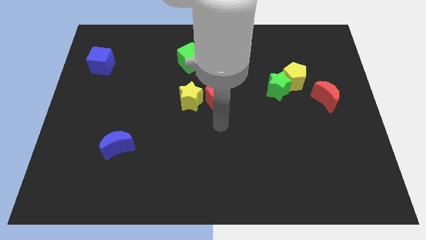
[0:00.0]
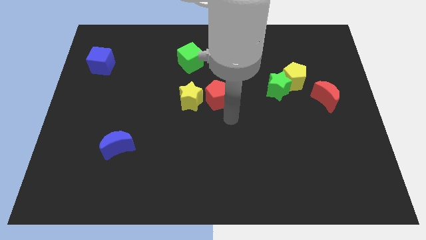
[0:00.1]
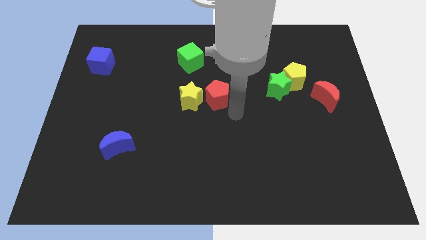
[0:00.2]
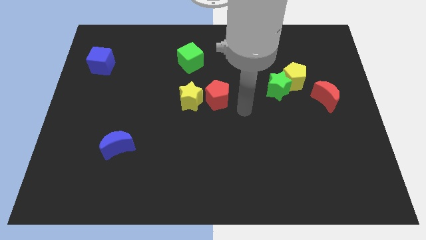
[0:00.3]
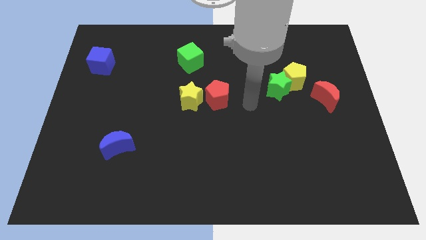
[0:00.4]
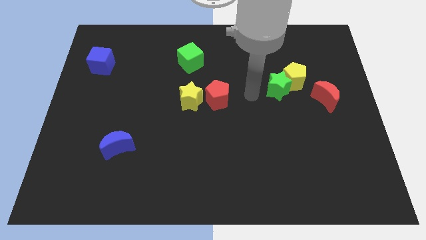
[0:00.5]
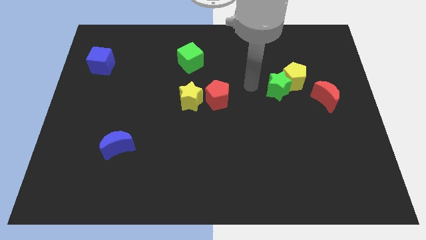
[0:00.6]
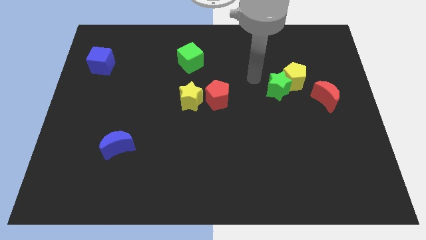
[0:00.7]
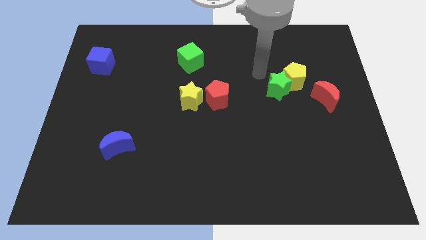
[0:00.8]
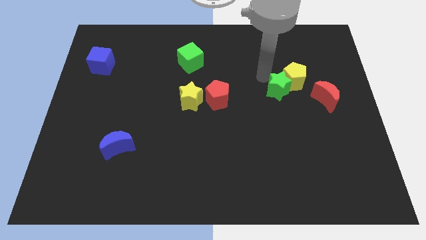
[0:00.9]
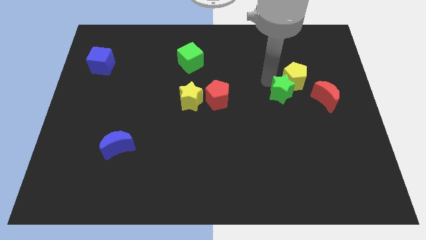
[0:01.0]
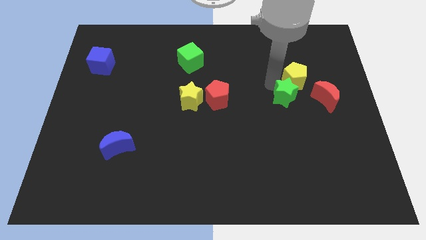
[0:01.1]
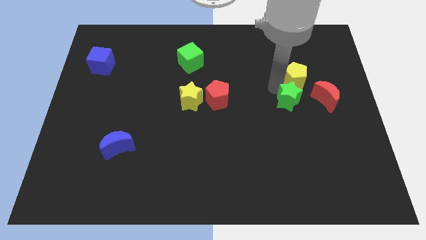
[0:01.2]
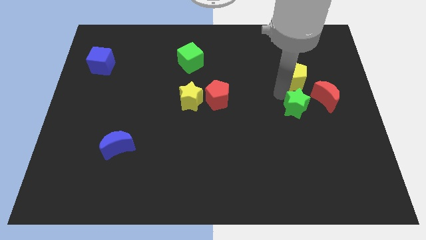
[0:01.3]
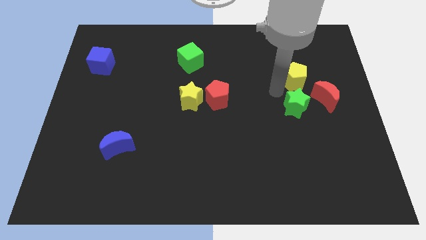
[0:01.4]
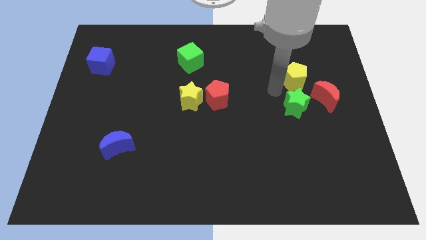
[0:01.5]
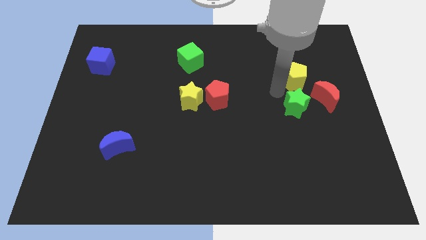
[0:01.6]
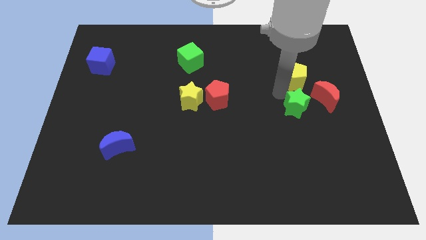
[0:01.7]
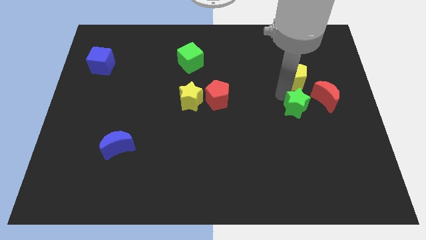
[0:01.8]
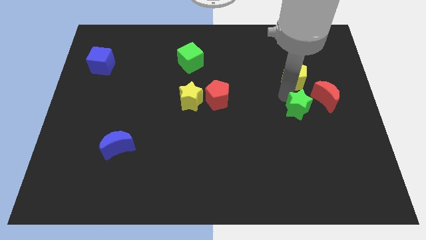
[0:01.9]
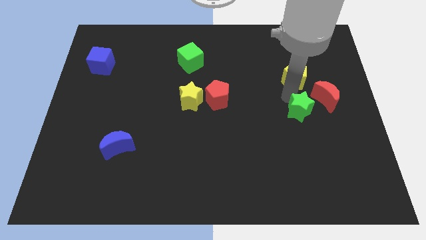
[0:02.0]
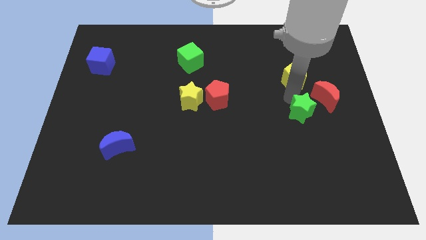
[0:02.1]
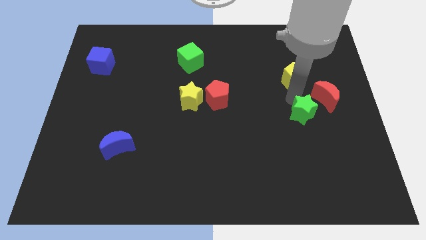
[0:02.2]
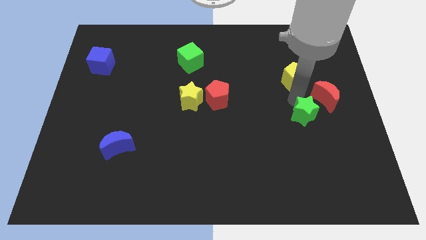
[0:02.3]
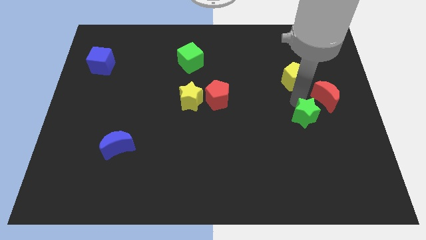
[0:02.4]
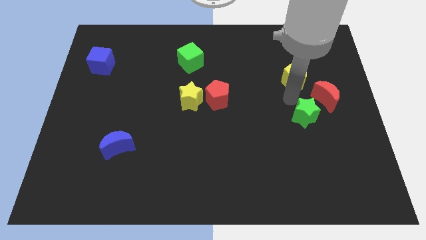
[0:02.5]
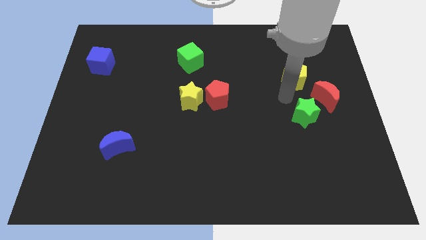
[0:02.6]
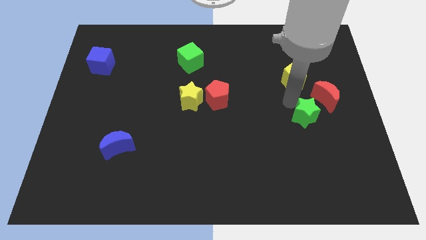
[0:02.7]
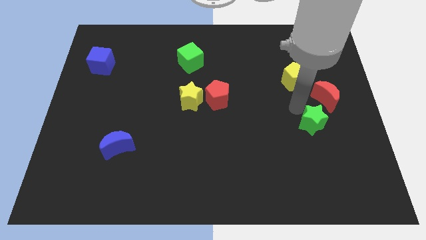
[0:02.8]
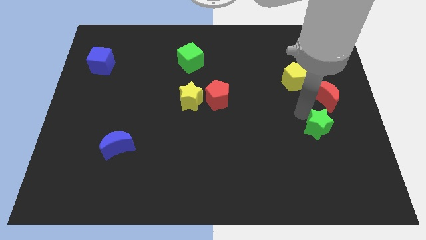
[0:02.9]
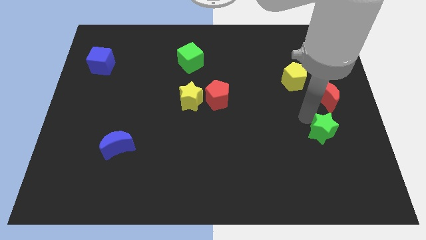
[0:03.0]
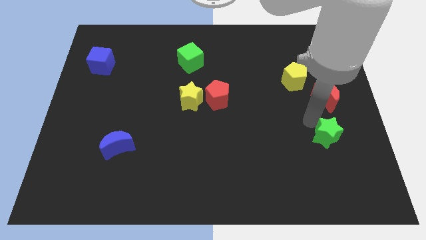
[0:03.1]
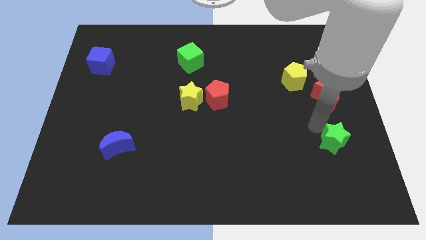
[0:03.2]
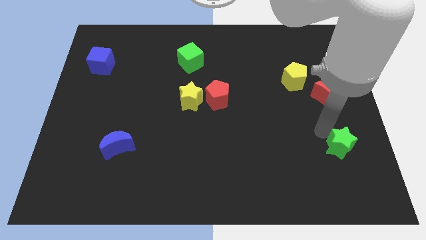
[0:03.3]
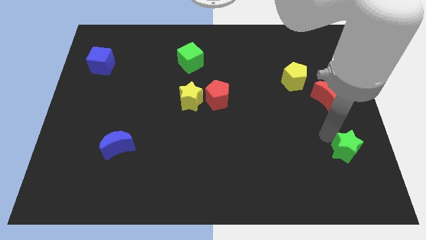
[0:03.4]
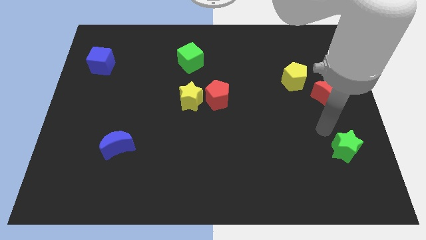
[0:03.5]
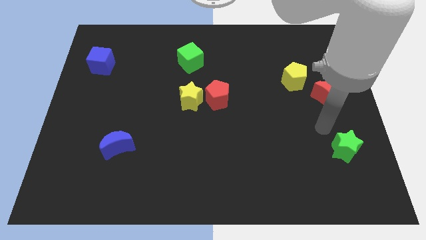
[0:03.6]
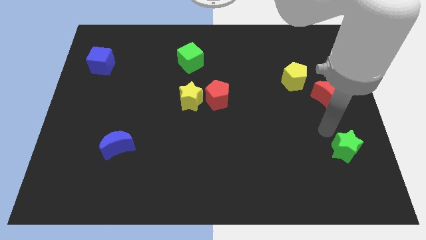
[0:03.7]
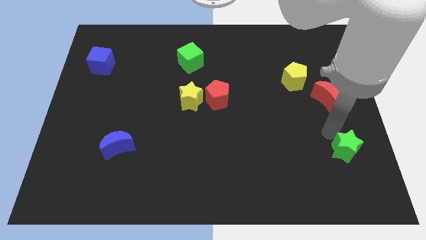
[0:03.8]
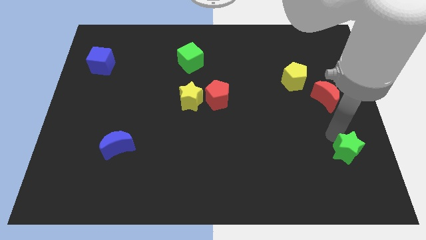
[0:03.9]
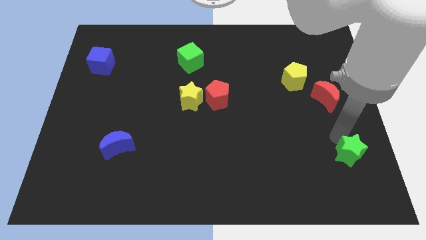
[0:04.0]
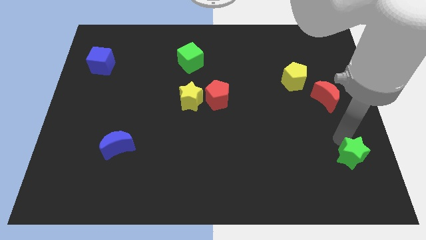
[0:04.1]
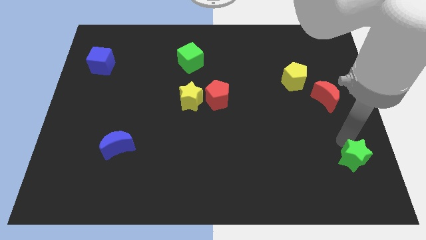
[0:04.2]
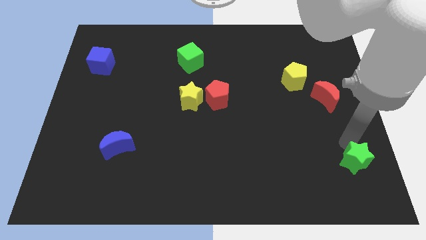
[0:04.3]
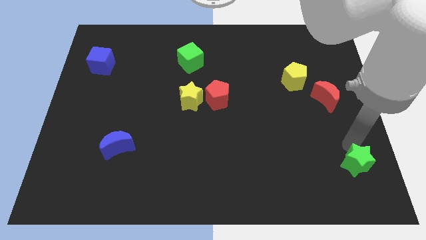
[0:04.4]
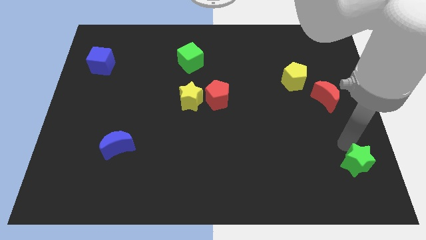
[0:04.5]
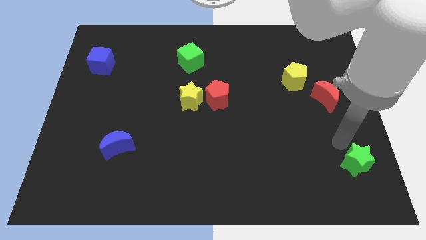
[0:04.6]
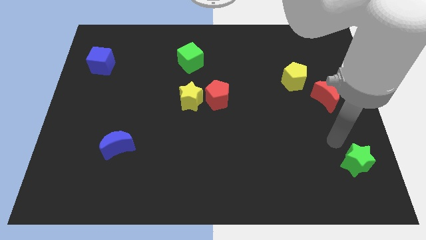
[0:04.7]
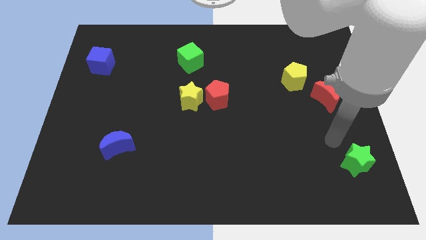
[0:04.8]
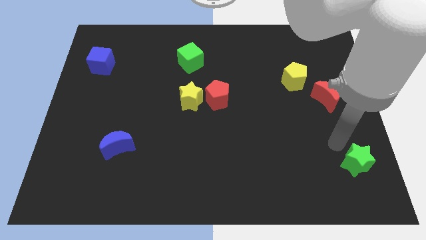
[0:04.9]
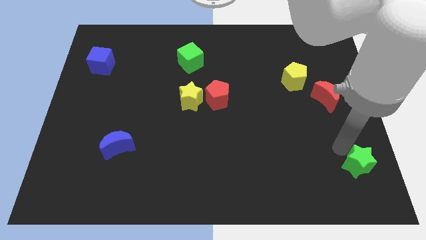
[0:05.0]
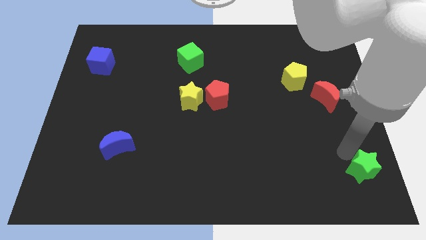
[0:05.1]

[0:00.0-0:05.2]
push the green star to the lower right corner

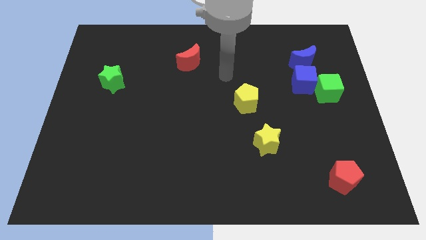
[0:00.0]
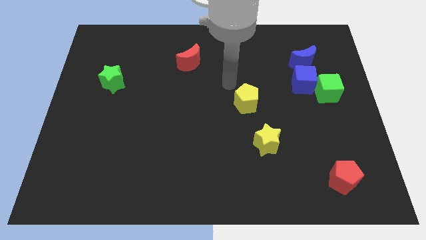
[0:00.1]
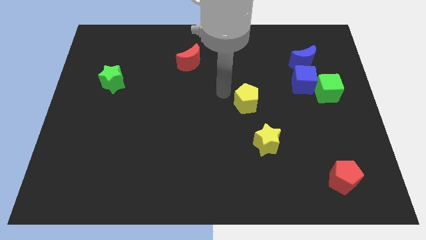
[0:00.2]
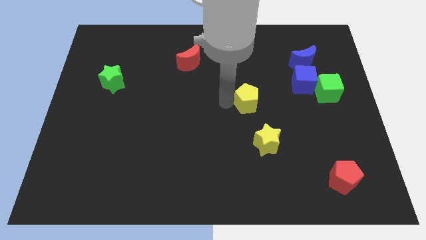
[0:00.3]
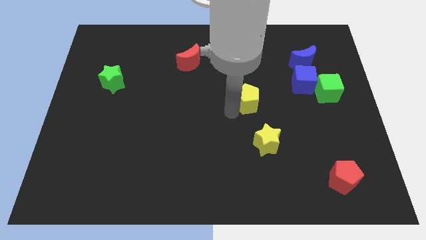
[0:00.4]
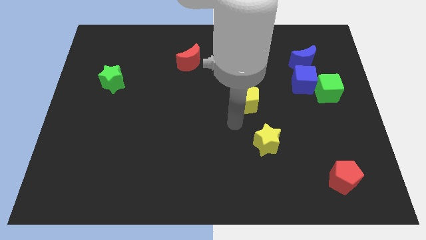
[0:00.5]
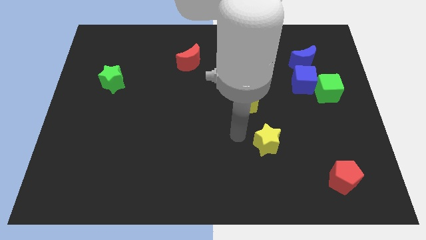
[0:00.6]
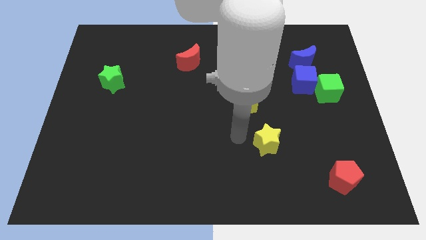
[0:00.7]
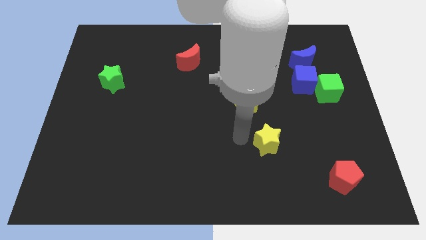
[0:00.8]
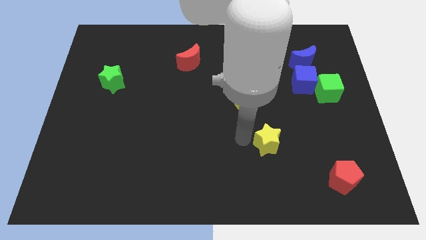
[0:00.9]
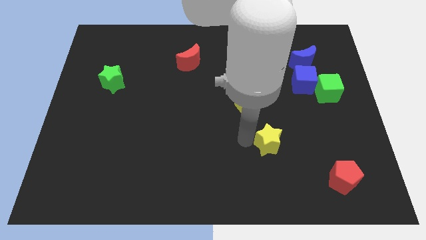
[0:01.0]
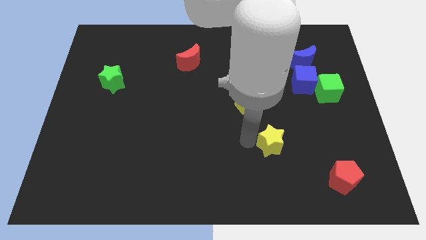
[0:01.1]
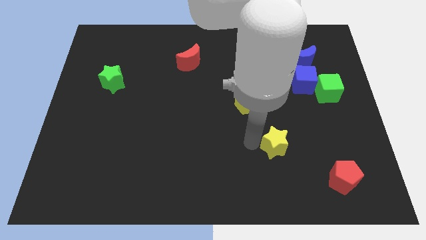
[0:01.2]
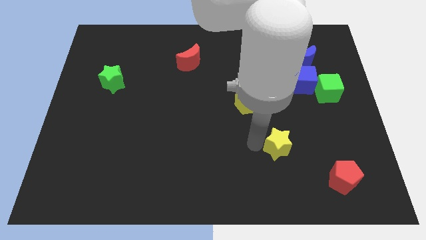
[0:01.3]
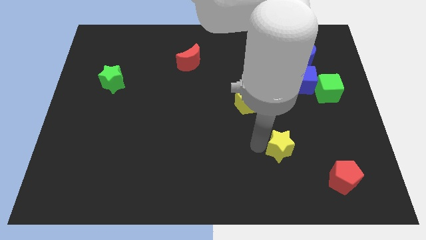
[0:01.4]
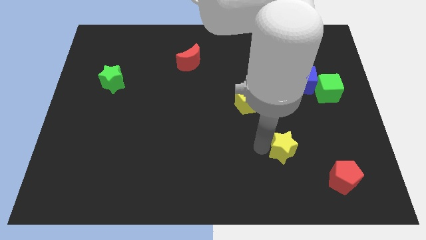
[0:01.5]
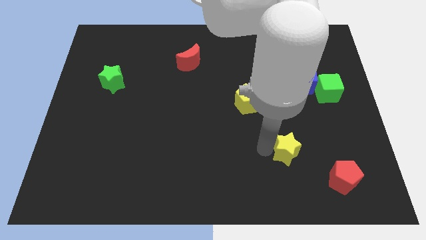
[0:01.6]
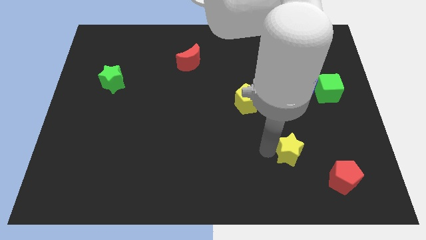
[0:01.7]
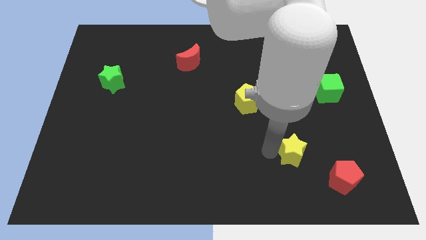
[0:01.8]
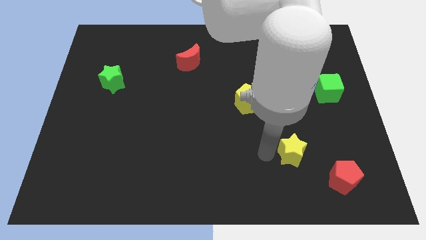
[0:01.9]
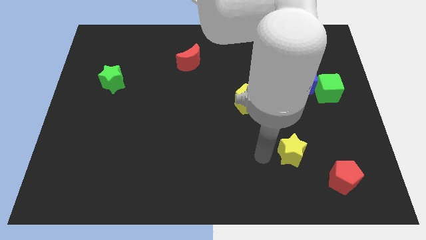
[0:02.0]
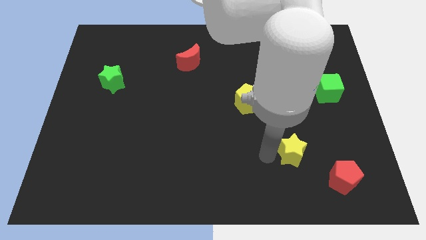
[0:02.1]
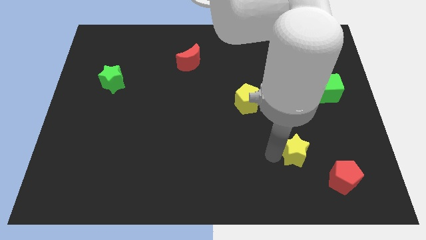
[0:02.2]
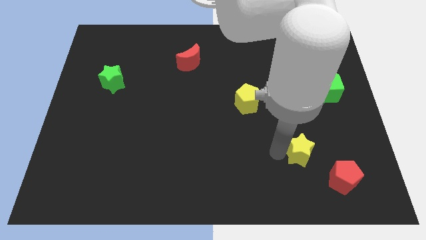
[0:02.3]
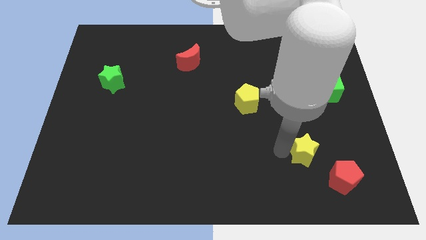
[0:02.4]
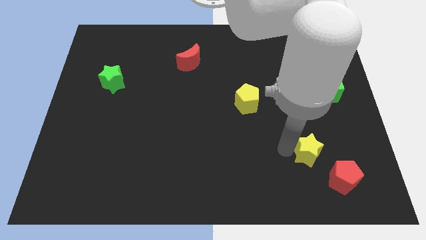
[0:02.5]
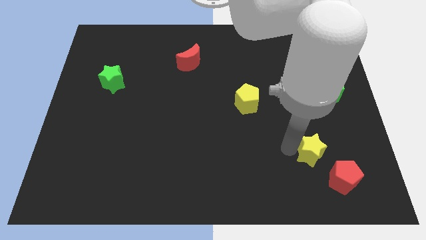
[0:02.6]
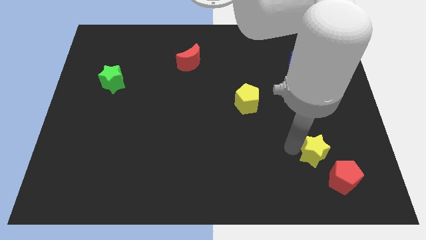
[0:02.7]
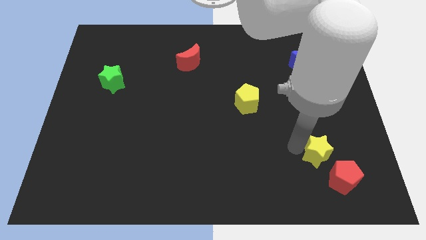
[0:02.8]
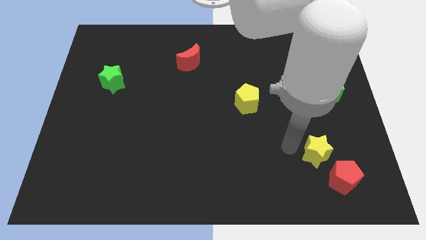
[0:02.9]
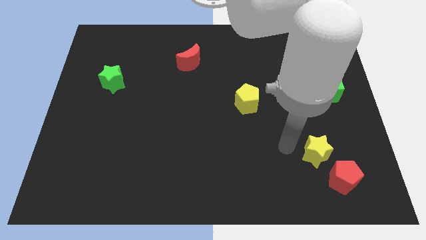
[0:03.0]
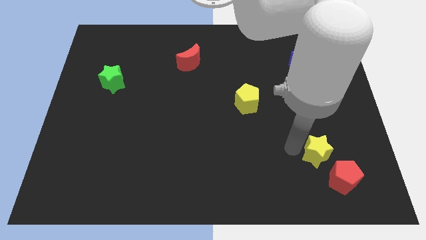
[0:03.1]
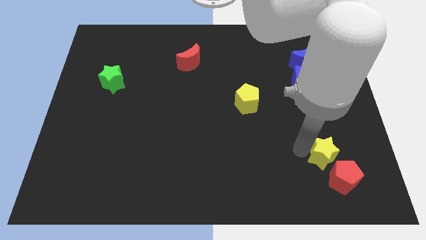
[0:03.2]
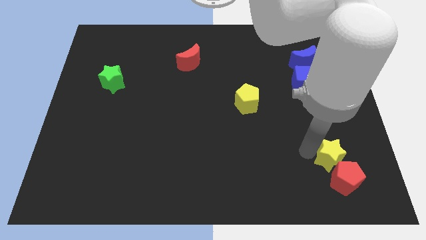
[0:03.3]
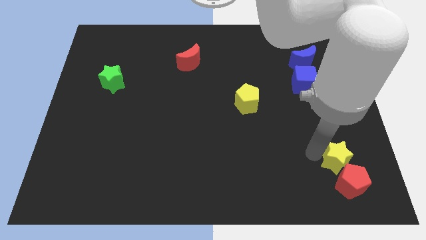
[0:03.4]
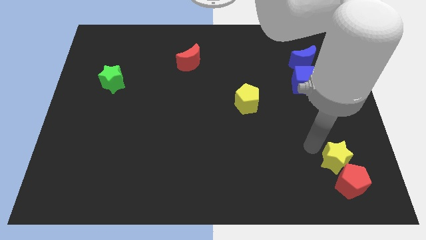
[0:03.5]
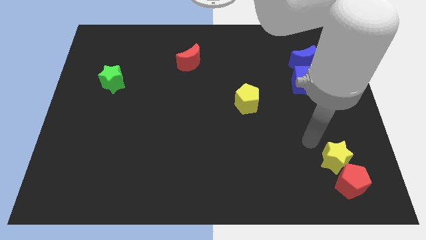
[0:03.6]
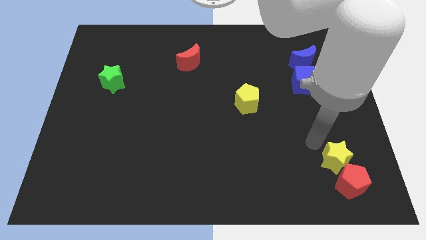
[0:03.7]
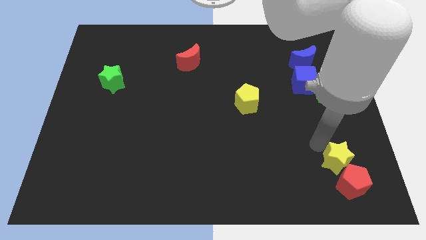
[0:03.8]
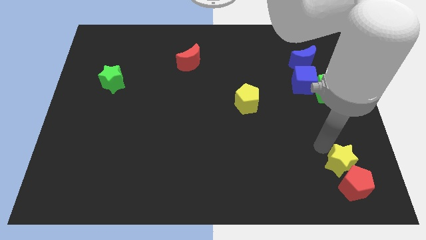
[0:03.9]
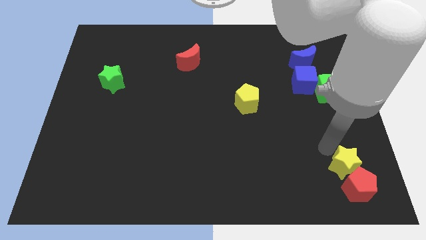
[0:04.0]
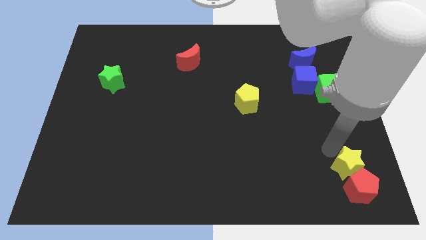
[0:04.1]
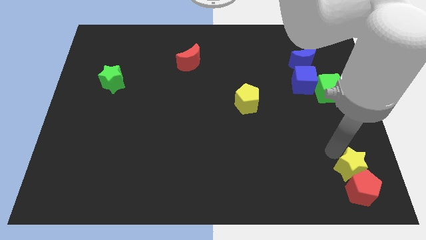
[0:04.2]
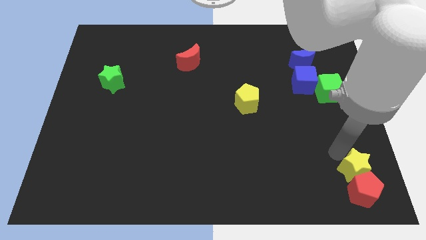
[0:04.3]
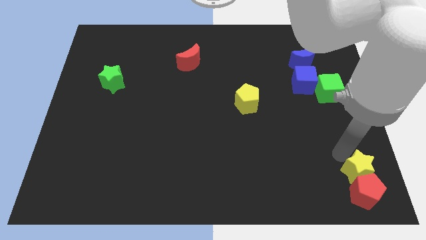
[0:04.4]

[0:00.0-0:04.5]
slide the yellow star to the bottom right corner
